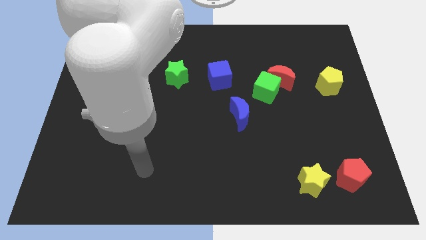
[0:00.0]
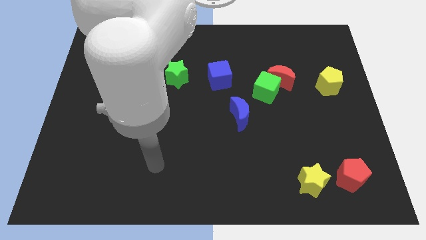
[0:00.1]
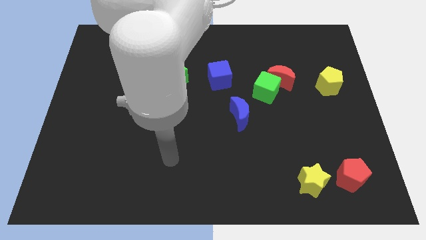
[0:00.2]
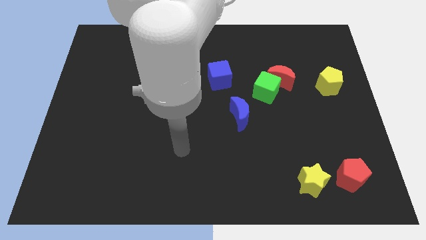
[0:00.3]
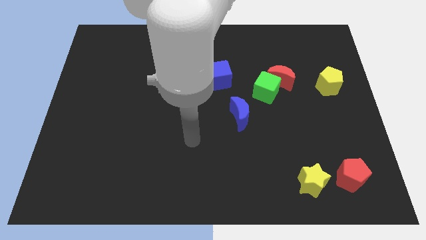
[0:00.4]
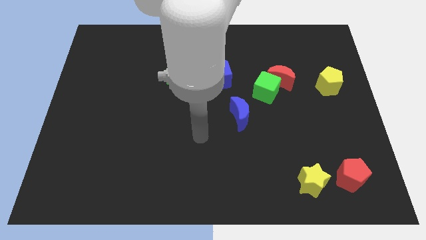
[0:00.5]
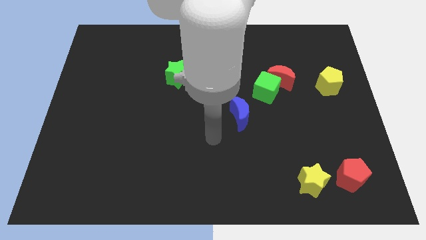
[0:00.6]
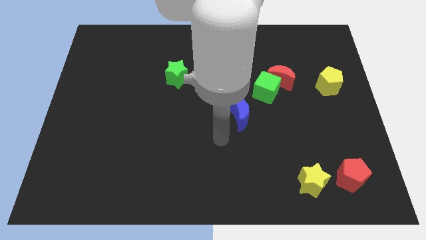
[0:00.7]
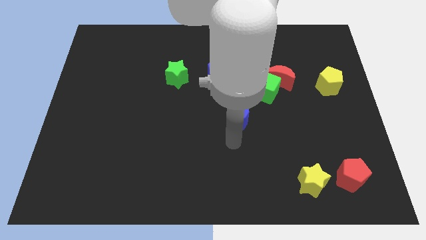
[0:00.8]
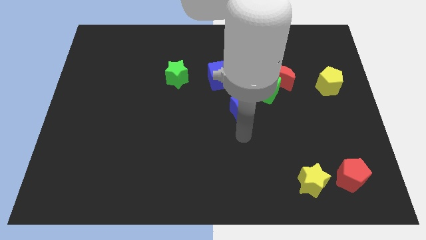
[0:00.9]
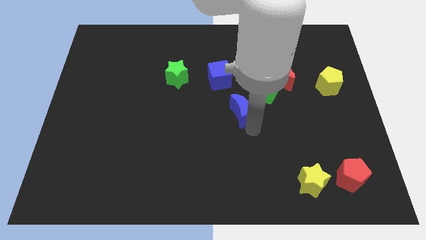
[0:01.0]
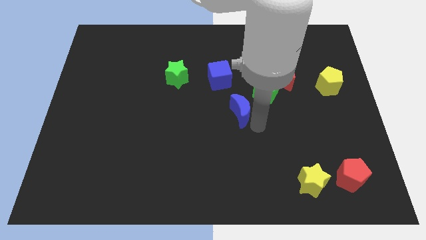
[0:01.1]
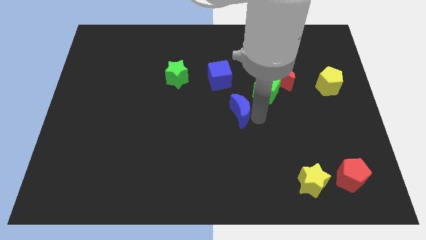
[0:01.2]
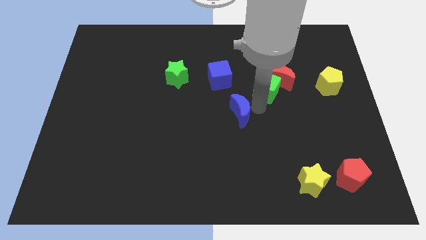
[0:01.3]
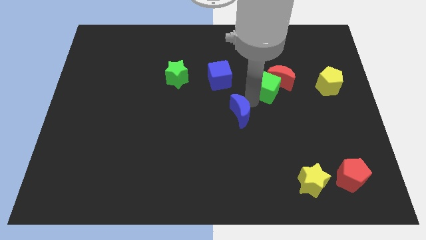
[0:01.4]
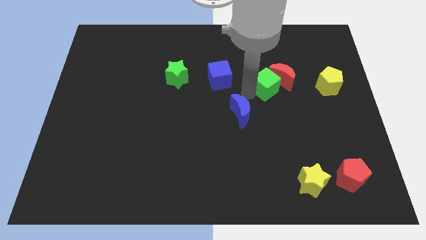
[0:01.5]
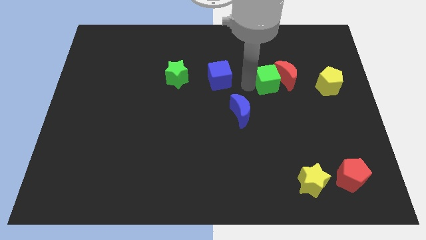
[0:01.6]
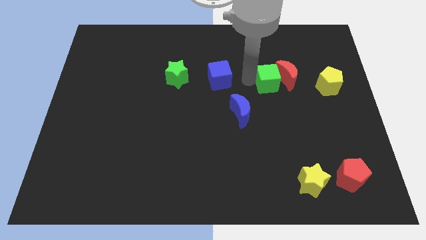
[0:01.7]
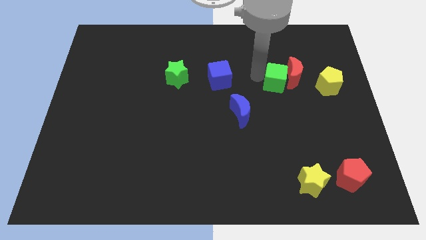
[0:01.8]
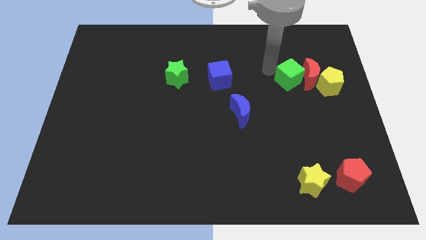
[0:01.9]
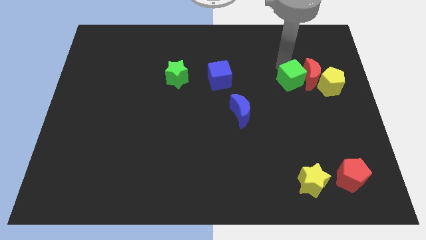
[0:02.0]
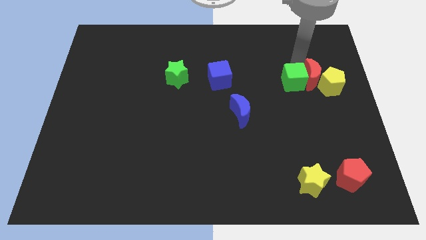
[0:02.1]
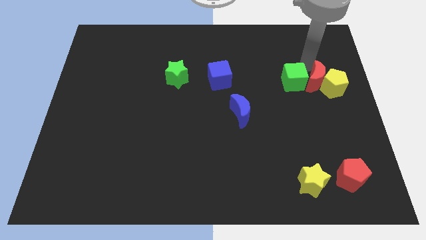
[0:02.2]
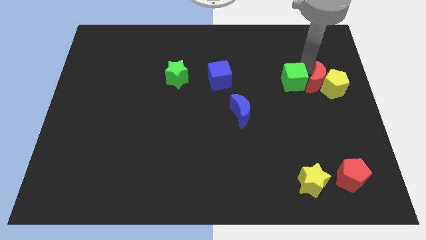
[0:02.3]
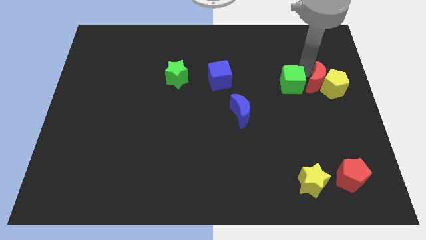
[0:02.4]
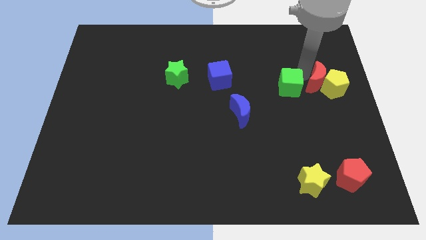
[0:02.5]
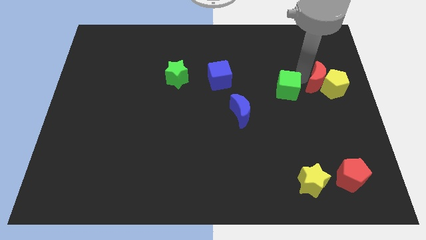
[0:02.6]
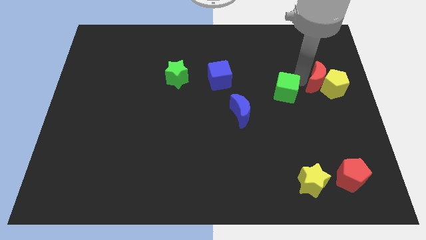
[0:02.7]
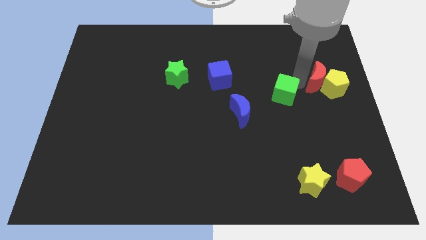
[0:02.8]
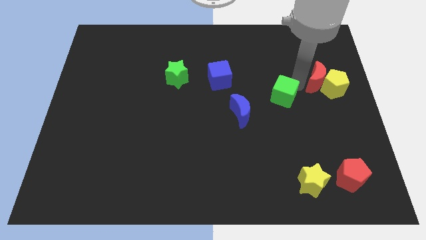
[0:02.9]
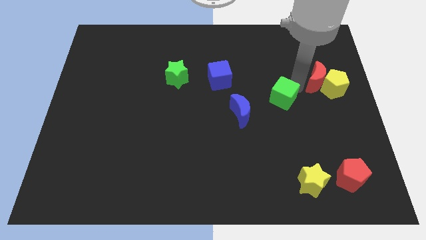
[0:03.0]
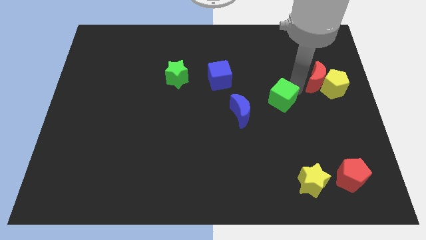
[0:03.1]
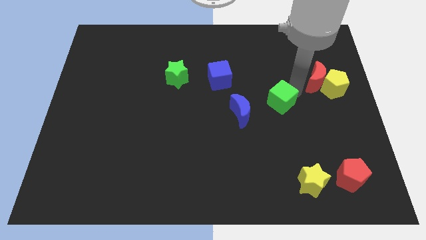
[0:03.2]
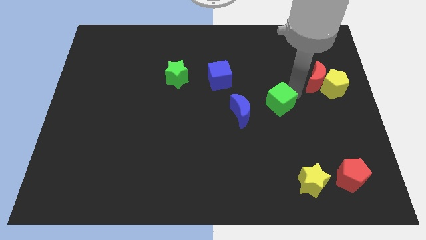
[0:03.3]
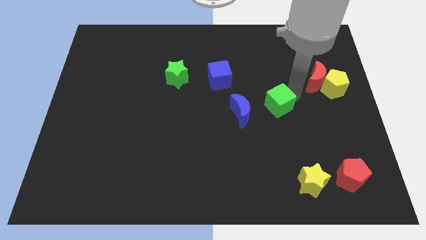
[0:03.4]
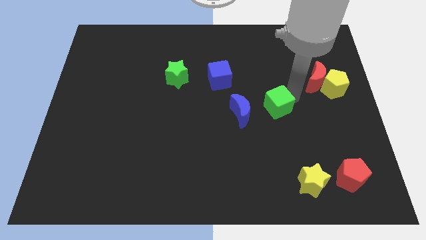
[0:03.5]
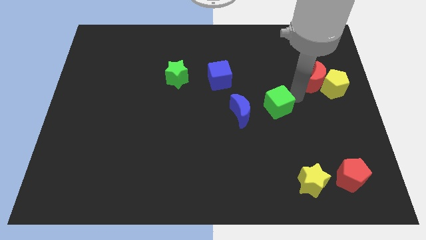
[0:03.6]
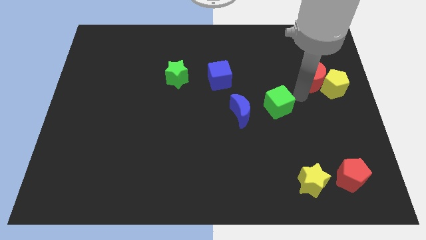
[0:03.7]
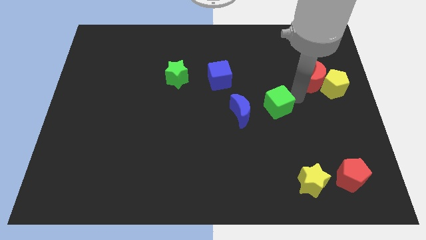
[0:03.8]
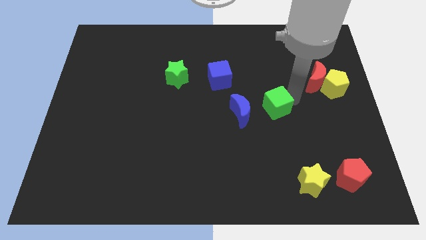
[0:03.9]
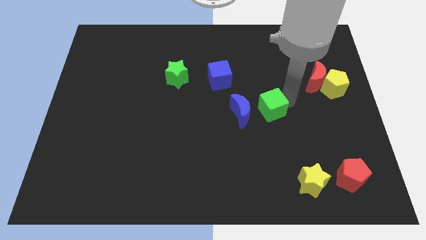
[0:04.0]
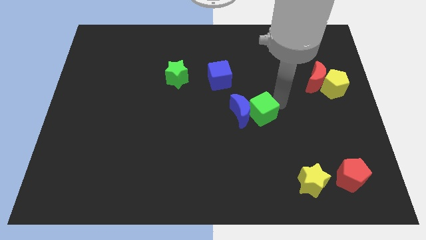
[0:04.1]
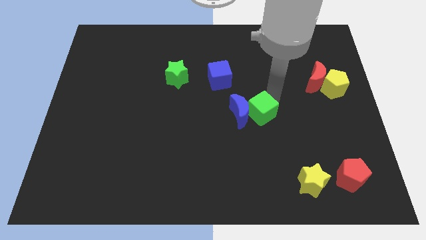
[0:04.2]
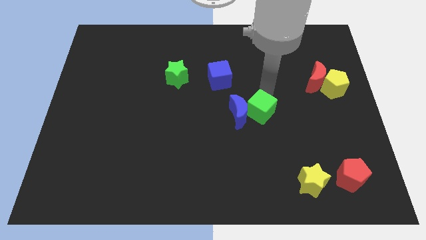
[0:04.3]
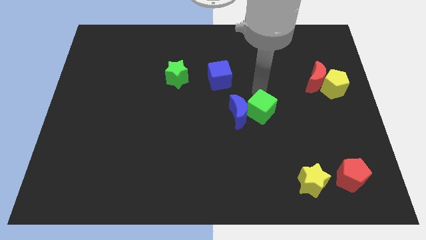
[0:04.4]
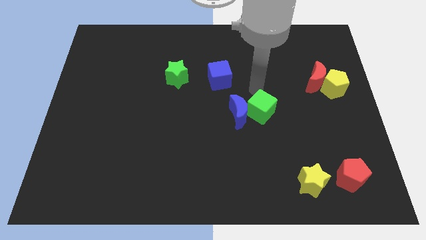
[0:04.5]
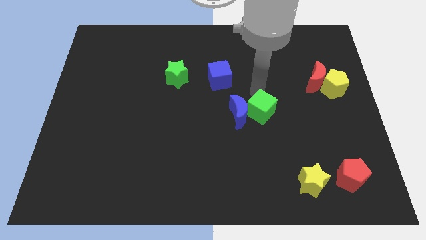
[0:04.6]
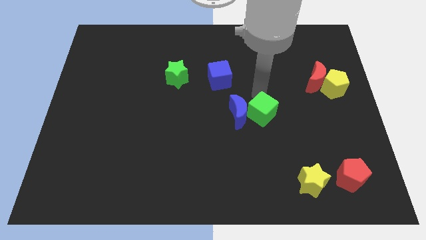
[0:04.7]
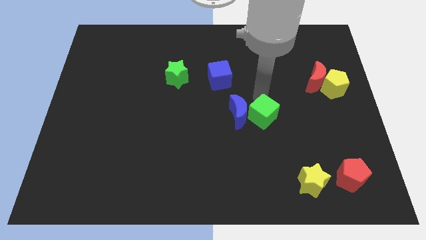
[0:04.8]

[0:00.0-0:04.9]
move the green cube down a bit

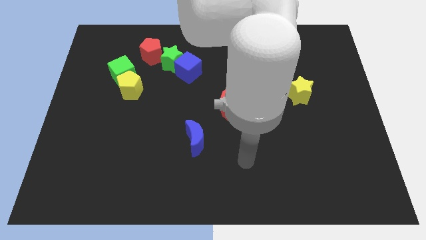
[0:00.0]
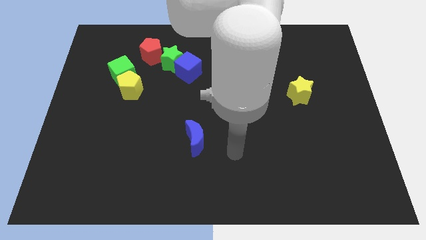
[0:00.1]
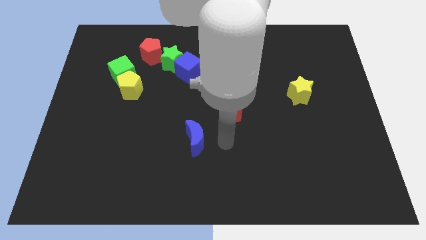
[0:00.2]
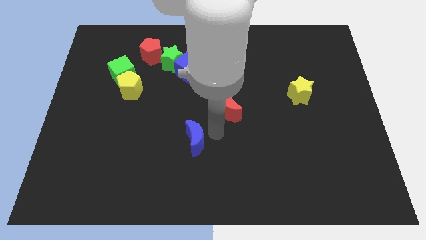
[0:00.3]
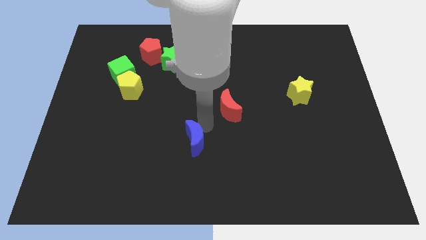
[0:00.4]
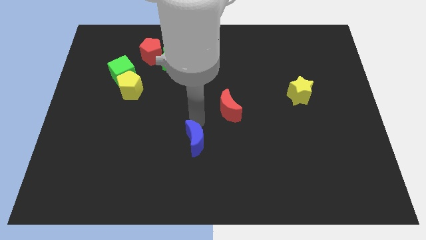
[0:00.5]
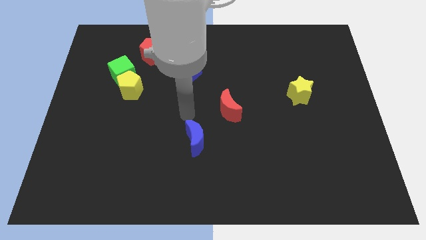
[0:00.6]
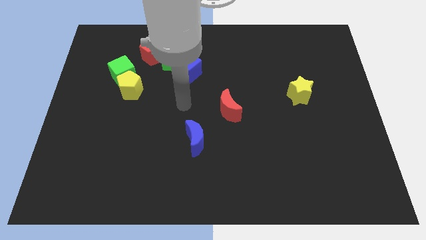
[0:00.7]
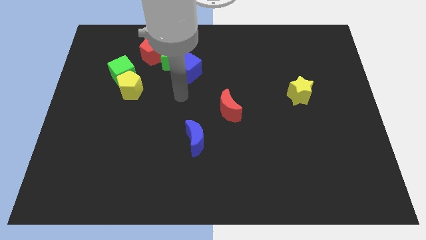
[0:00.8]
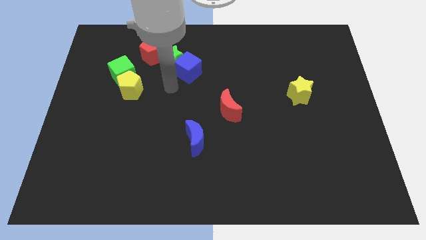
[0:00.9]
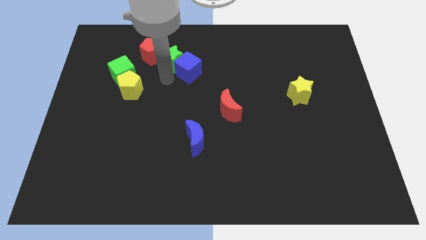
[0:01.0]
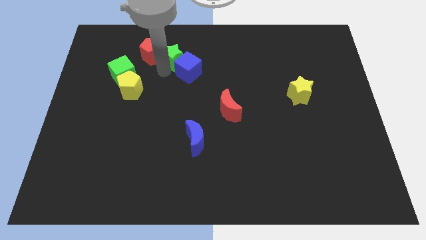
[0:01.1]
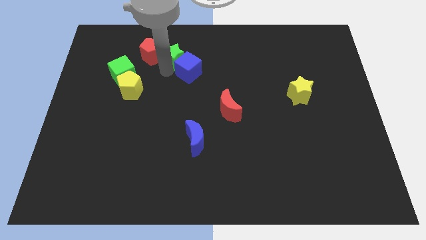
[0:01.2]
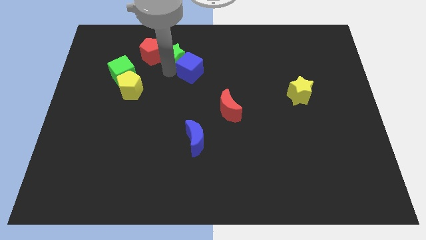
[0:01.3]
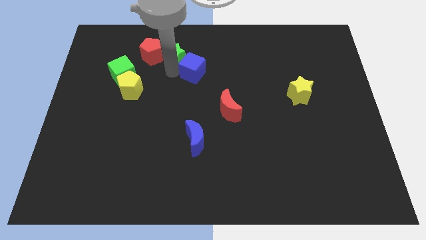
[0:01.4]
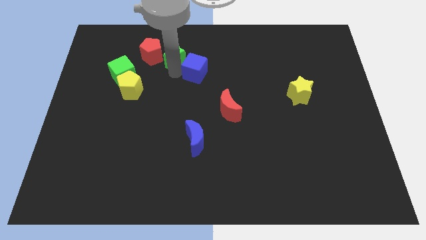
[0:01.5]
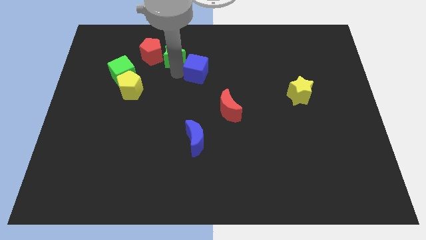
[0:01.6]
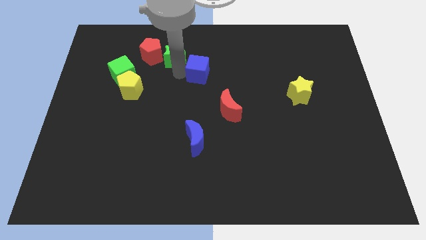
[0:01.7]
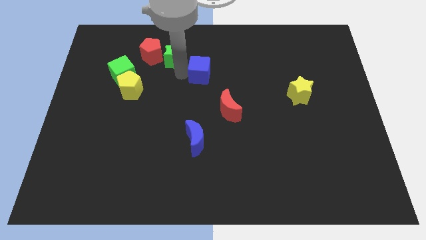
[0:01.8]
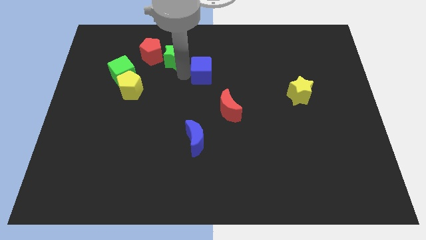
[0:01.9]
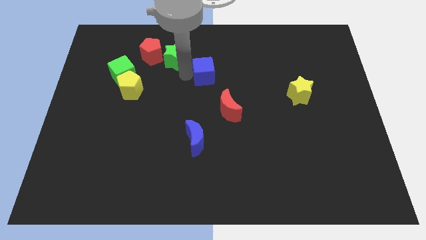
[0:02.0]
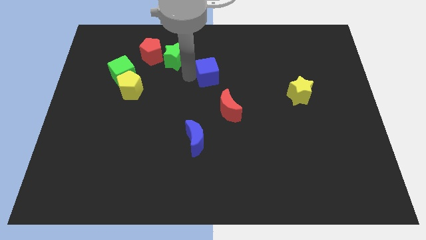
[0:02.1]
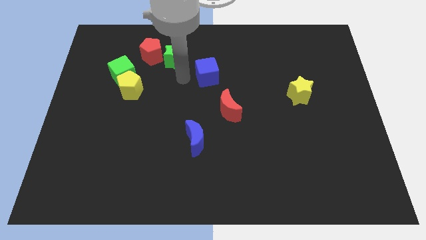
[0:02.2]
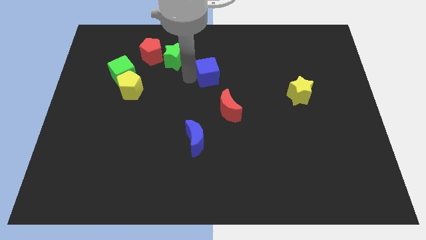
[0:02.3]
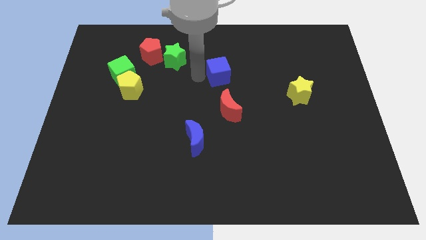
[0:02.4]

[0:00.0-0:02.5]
push the blue cube to the right a little

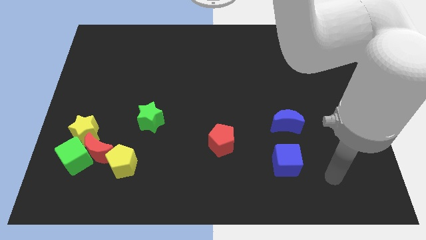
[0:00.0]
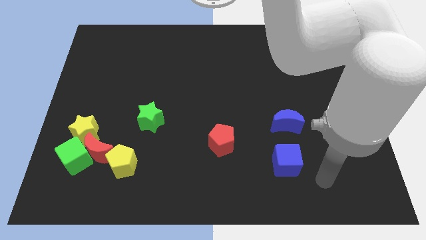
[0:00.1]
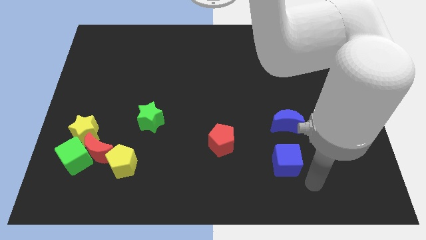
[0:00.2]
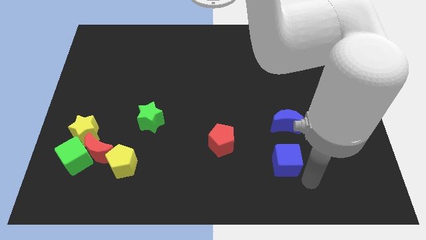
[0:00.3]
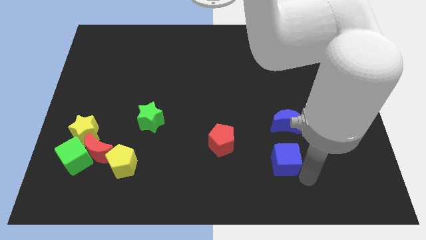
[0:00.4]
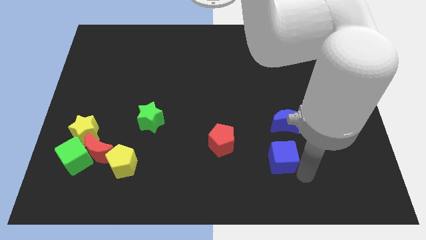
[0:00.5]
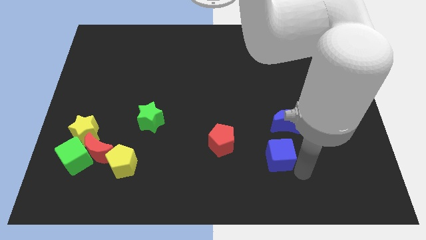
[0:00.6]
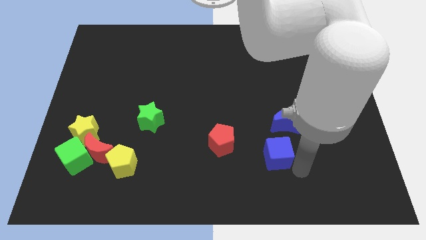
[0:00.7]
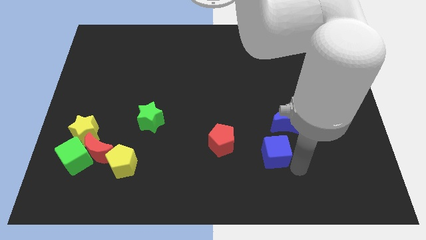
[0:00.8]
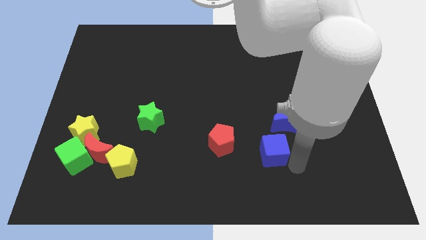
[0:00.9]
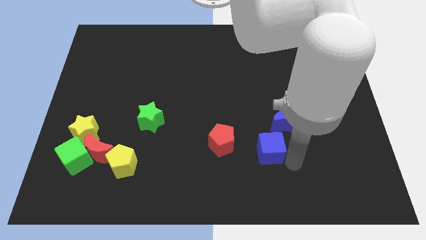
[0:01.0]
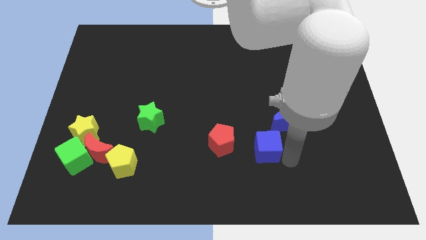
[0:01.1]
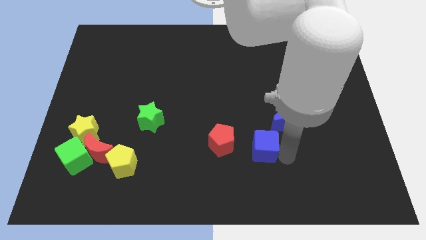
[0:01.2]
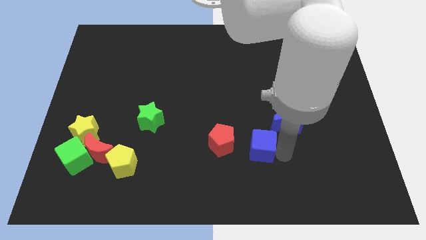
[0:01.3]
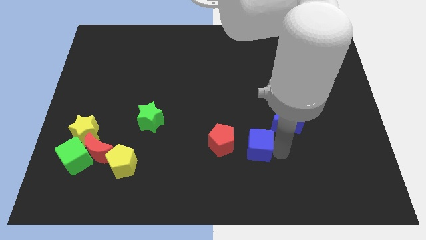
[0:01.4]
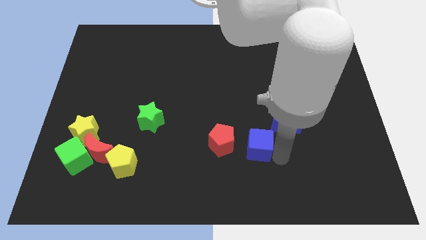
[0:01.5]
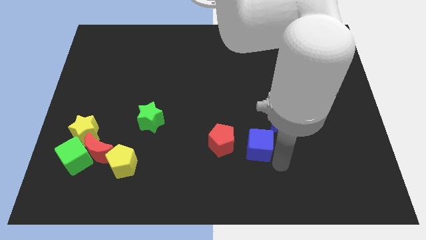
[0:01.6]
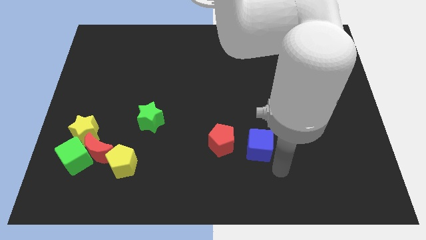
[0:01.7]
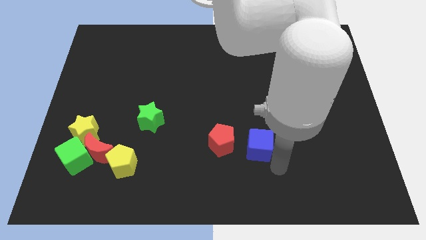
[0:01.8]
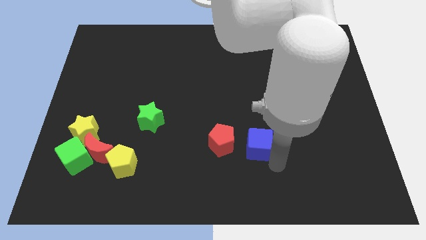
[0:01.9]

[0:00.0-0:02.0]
slightly move the blue cube upwards and left
